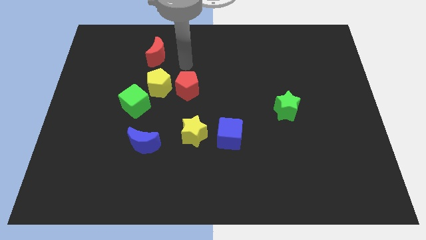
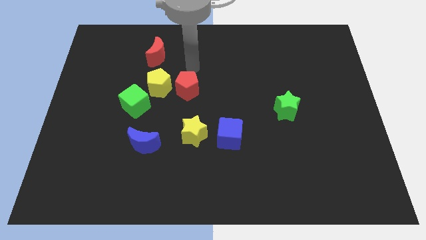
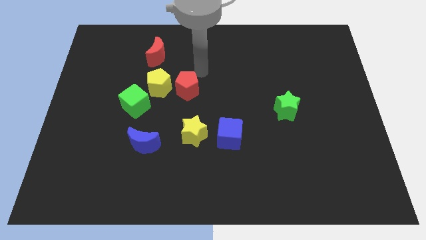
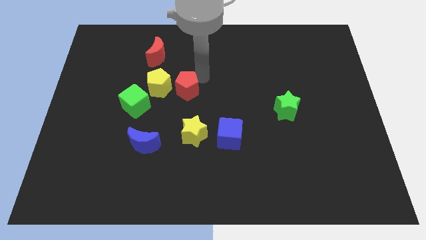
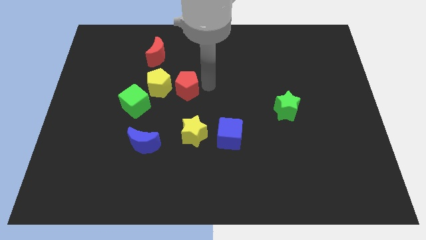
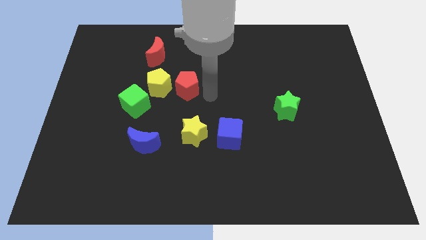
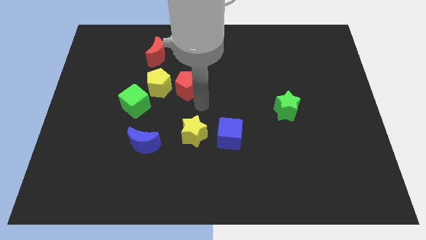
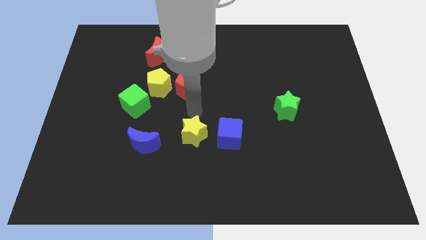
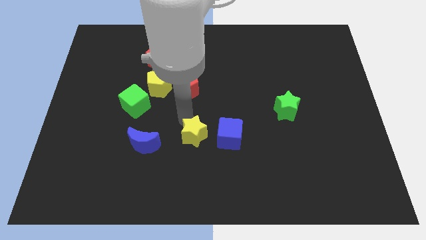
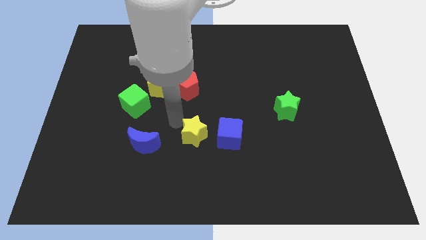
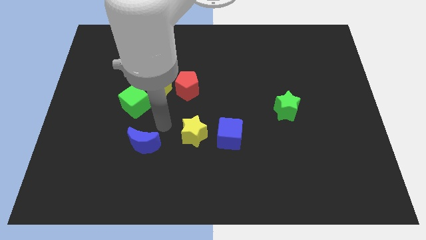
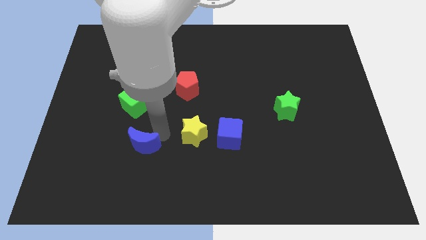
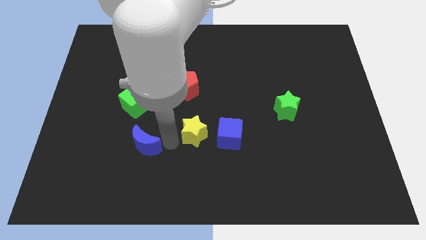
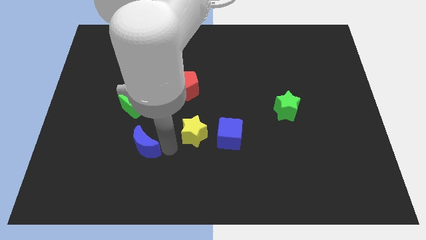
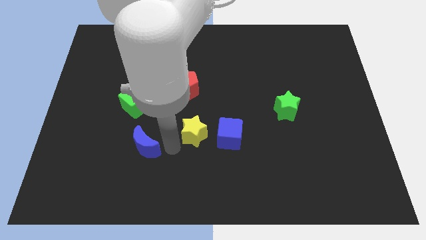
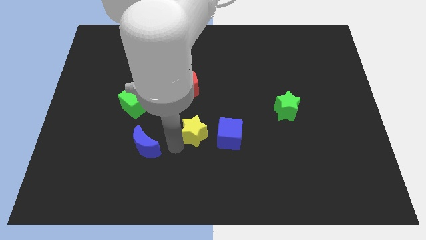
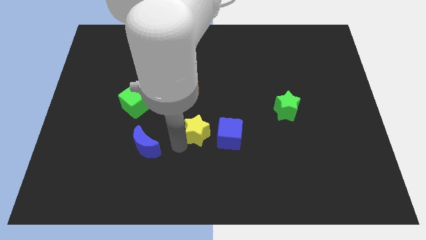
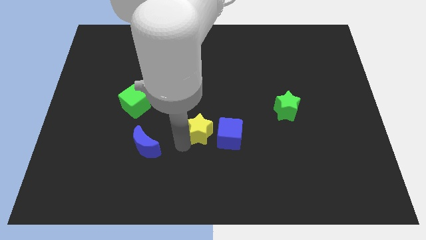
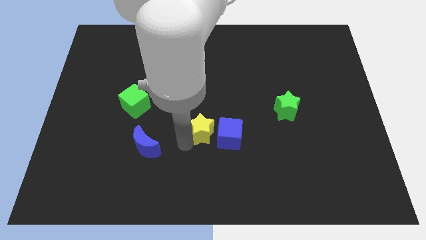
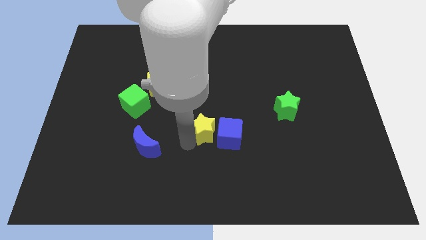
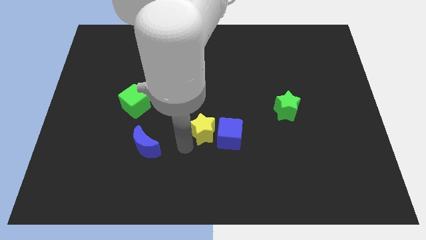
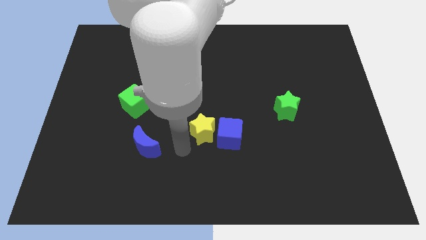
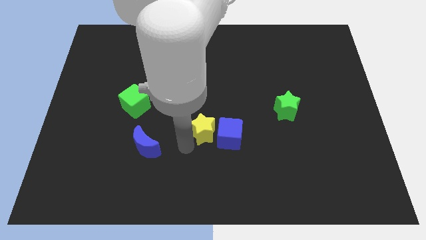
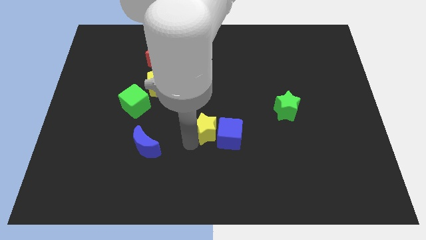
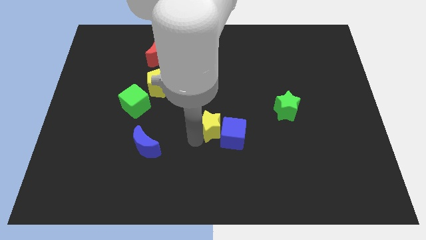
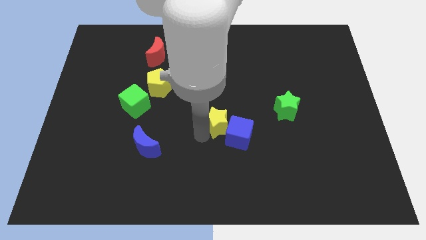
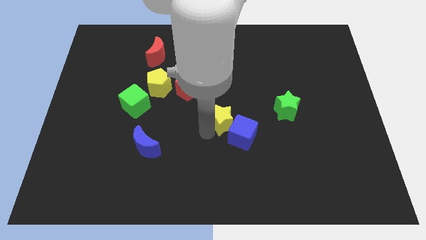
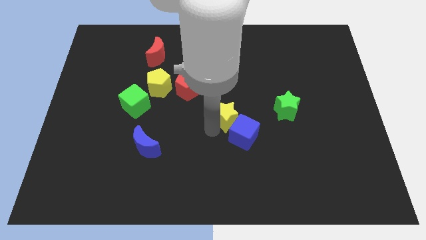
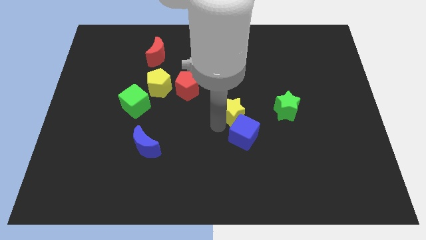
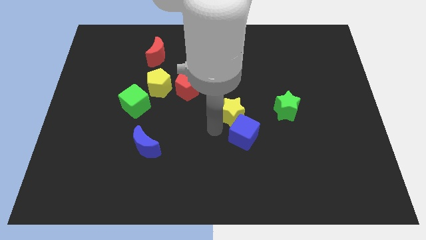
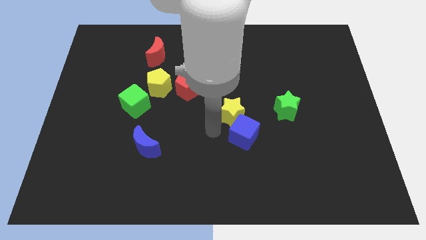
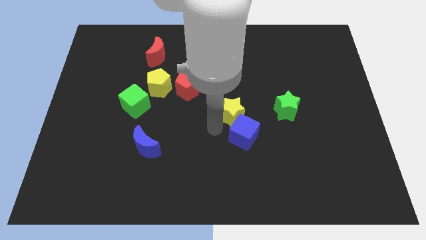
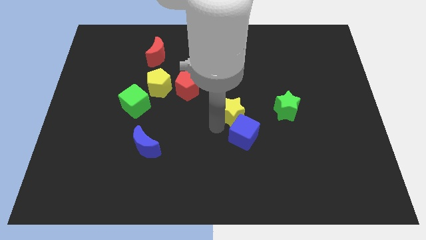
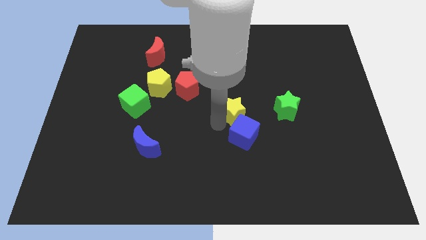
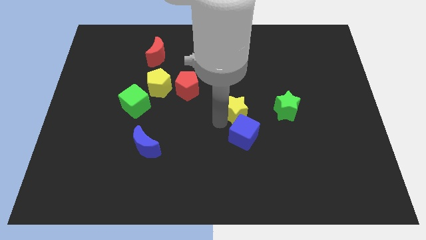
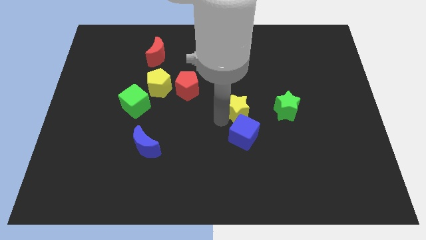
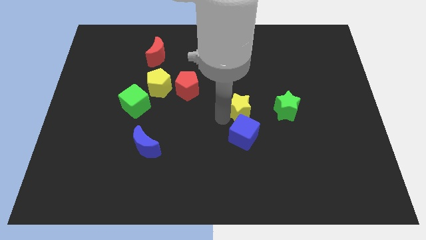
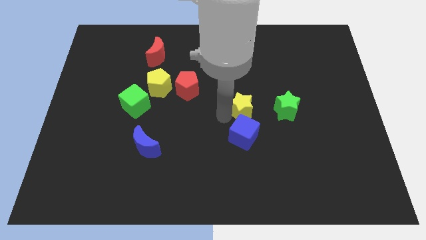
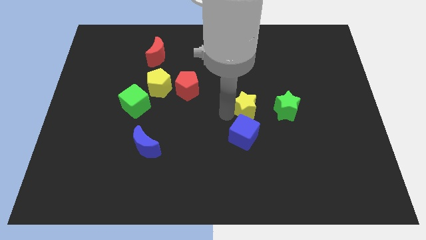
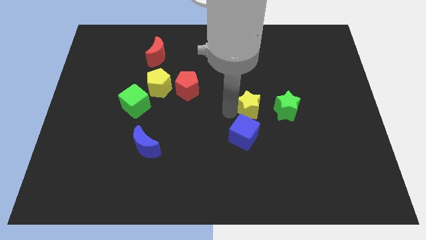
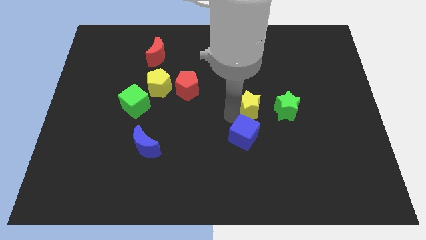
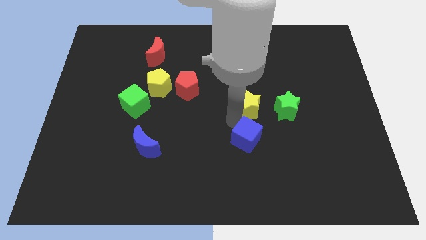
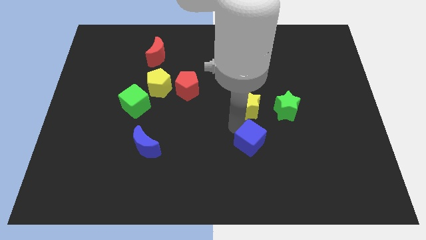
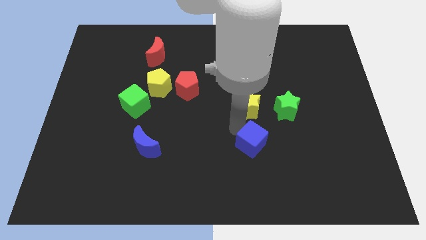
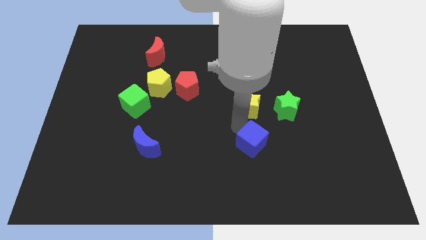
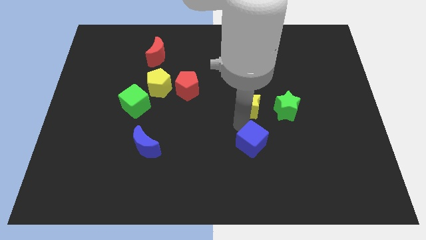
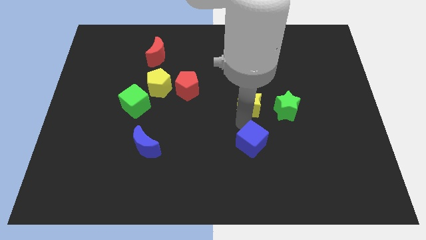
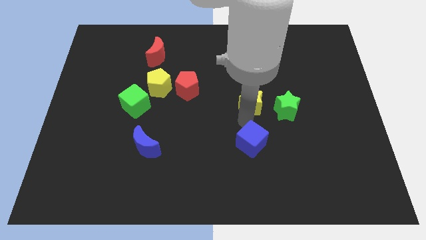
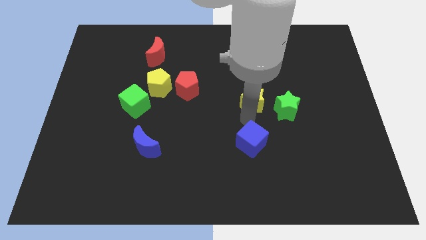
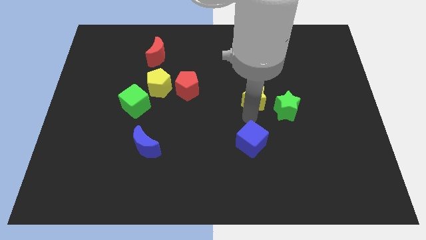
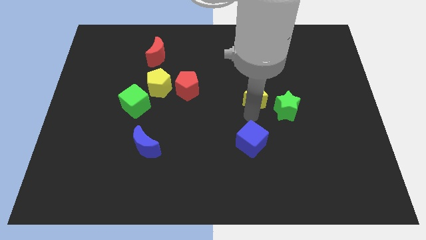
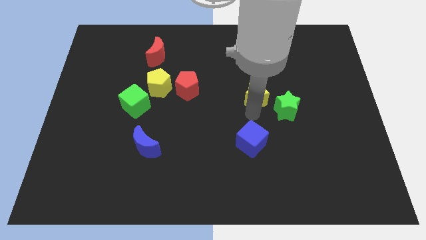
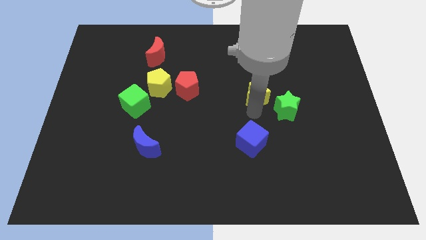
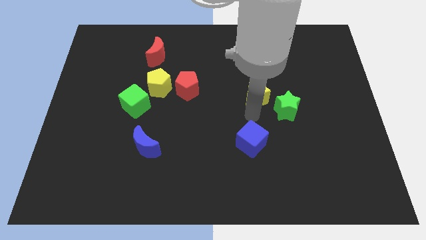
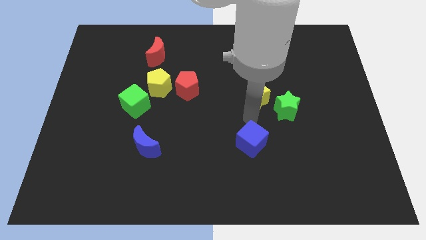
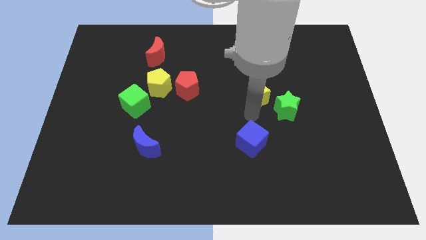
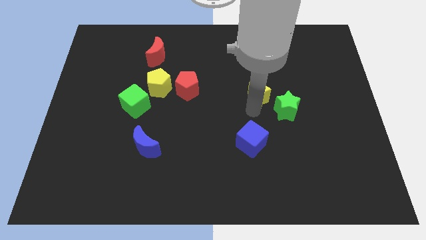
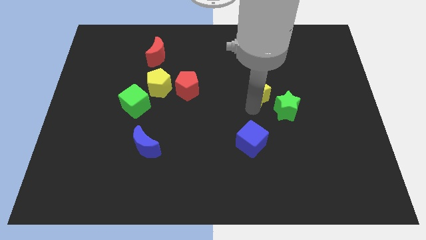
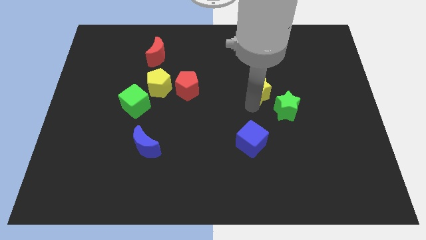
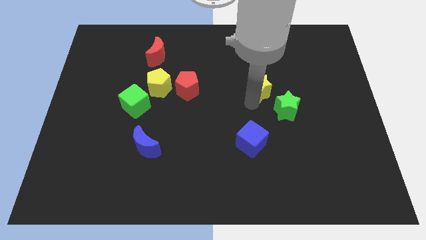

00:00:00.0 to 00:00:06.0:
move the yellow star upwards and to the right diagonally

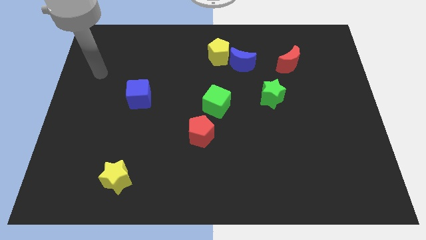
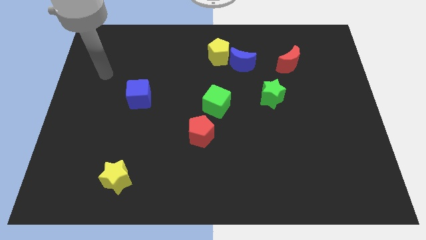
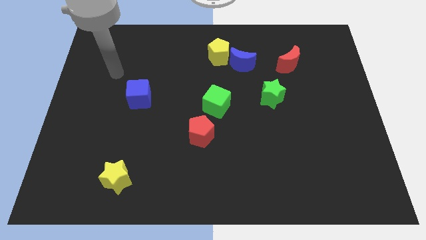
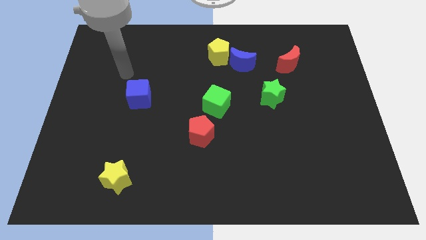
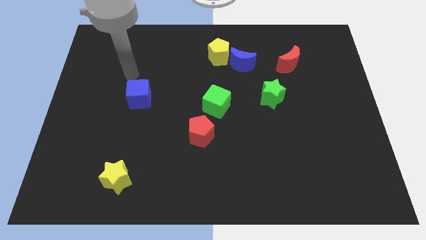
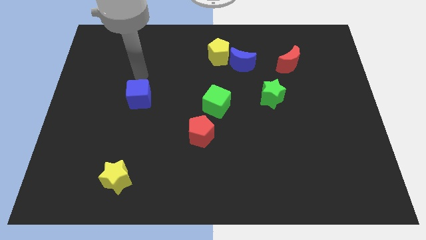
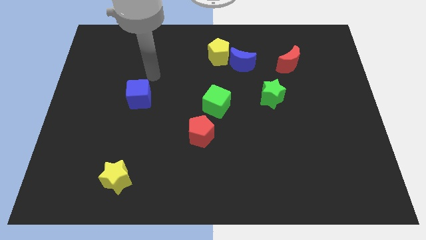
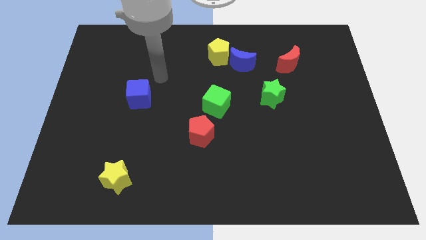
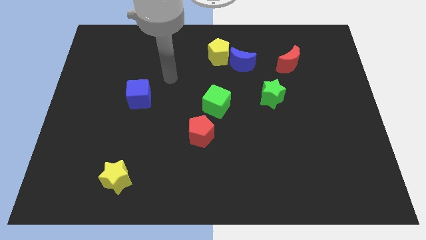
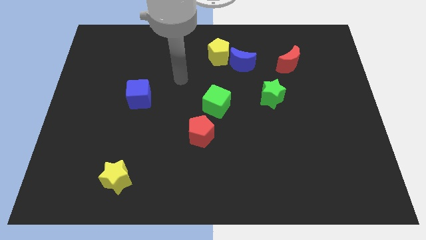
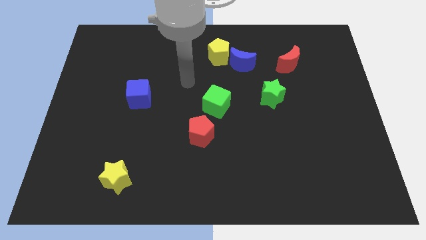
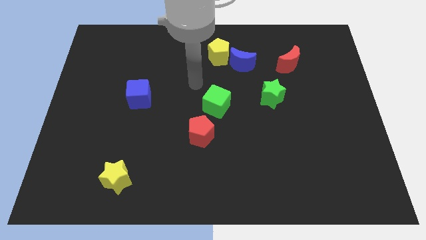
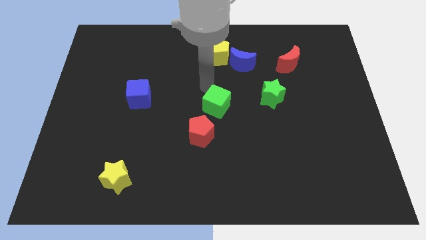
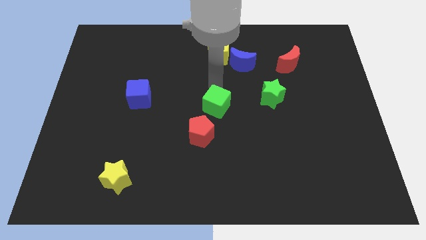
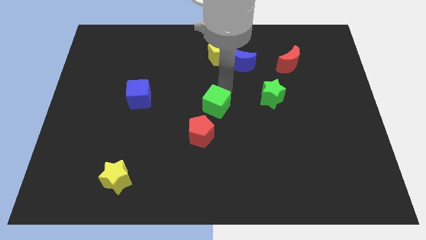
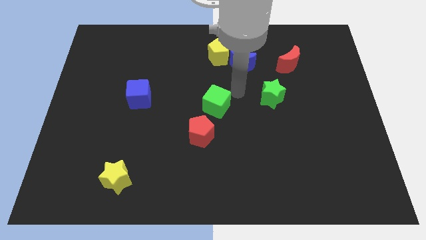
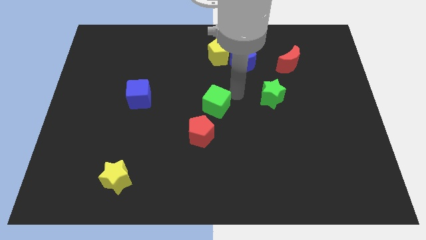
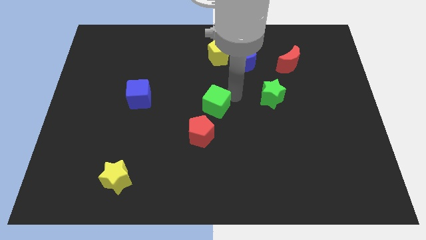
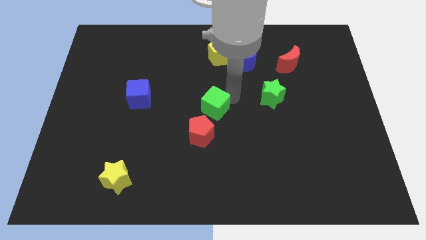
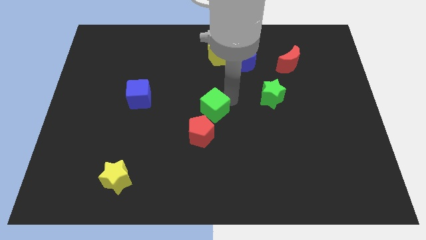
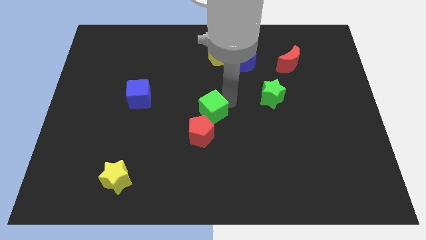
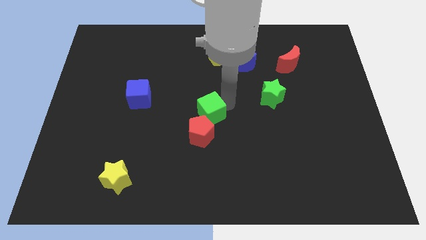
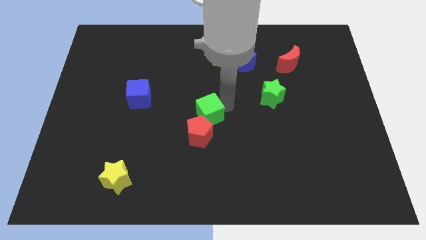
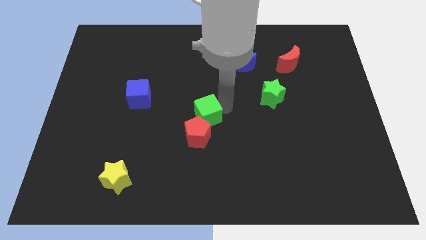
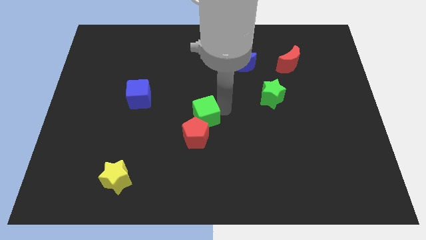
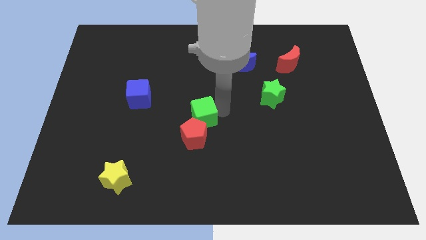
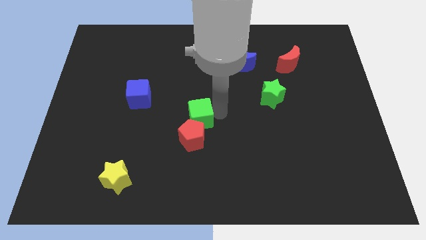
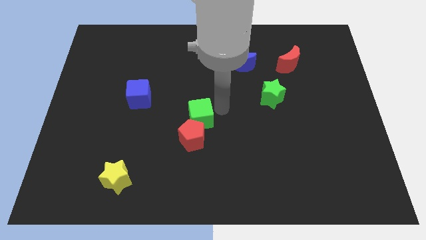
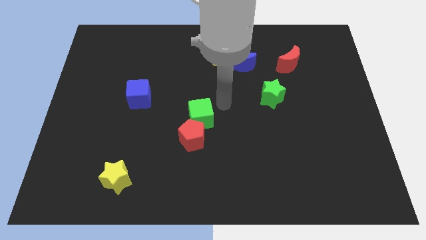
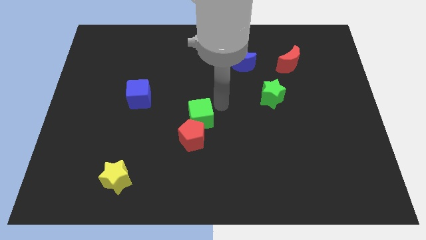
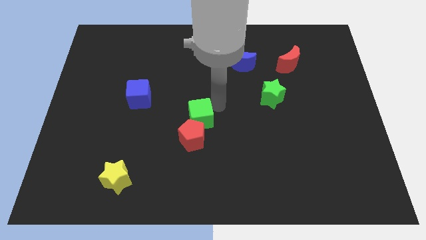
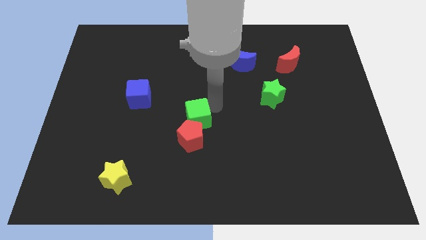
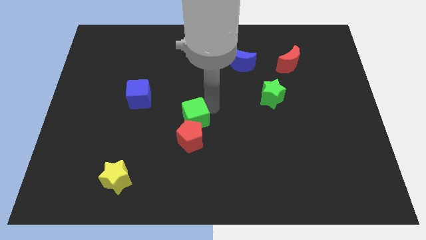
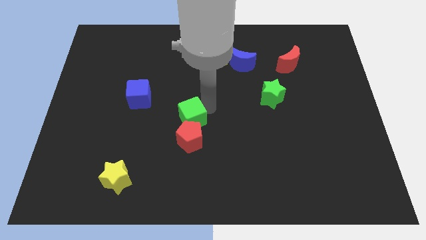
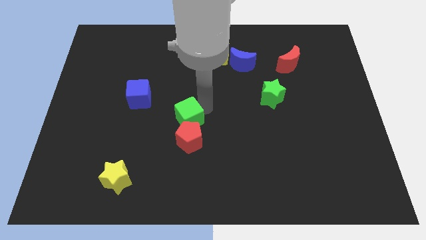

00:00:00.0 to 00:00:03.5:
slightly slide the green cube down and left diagonally
